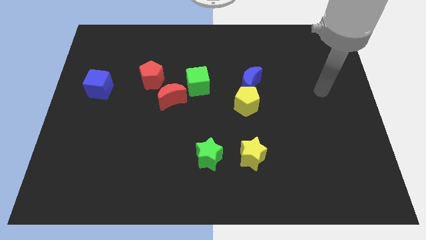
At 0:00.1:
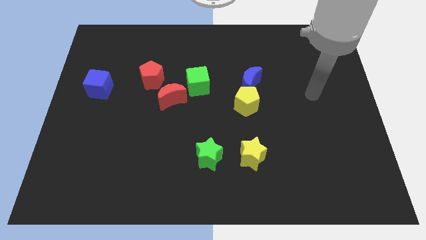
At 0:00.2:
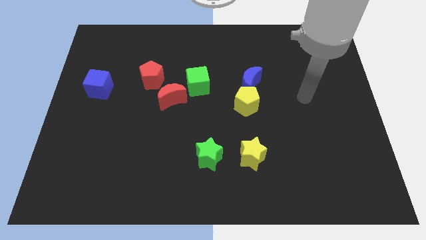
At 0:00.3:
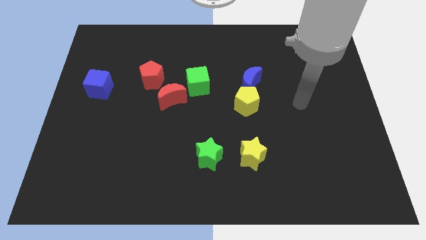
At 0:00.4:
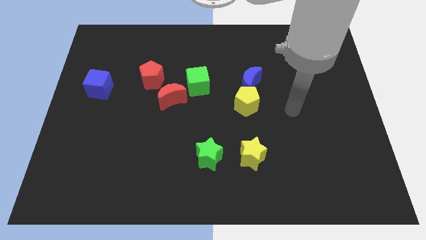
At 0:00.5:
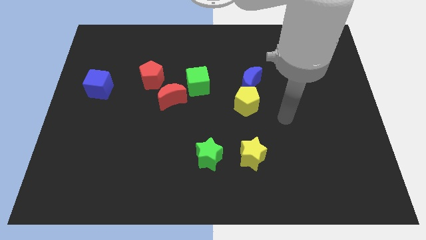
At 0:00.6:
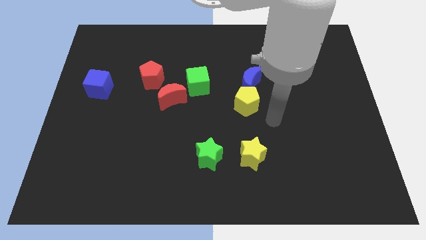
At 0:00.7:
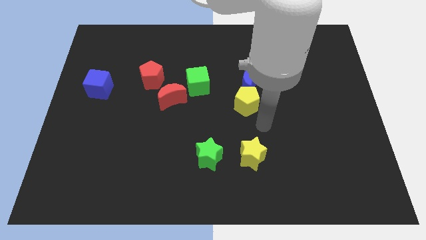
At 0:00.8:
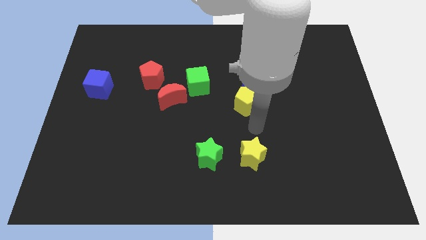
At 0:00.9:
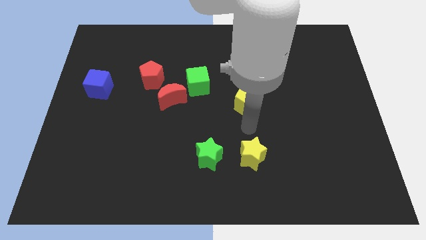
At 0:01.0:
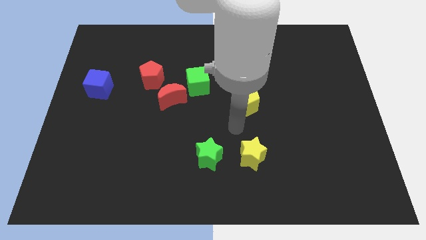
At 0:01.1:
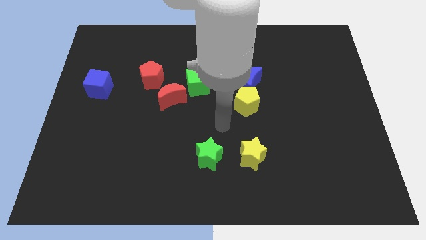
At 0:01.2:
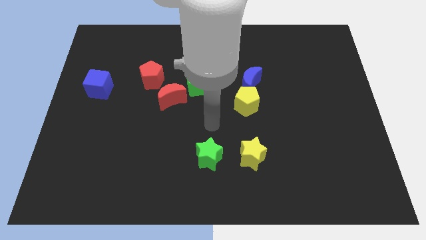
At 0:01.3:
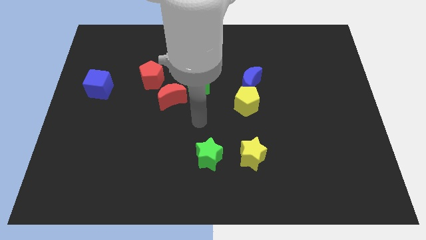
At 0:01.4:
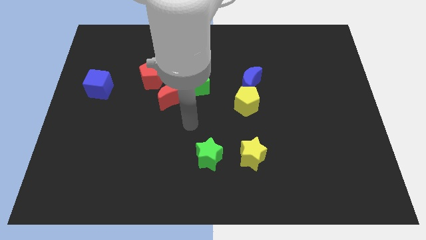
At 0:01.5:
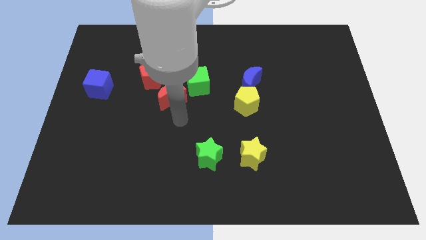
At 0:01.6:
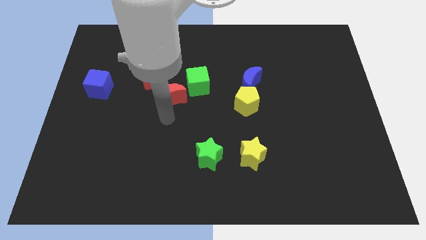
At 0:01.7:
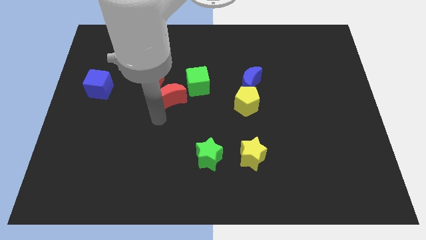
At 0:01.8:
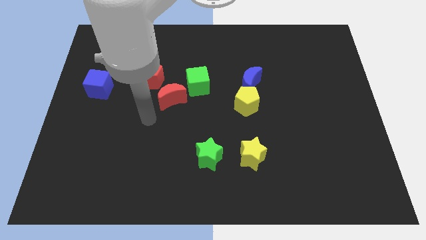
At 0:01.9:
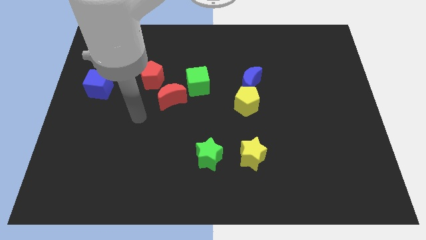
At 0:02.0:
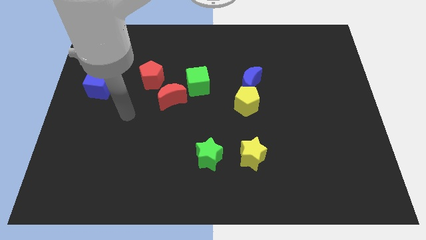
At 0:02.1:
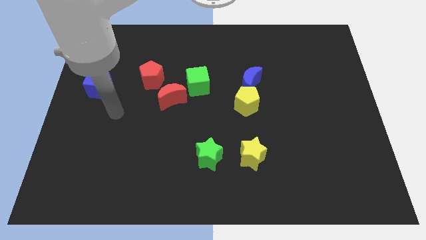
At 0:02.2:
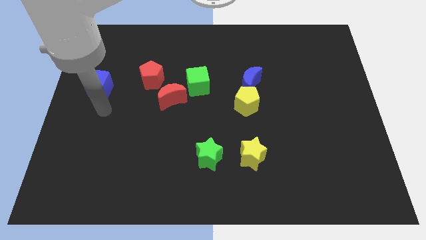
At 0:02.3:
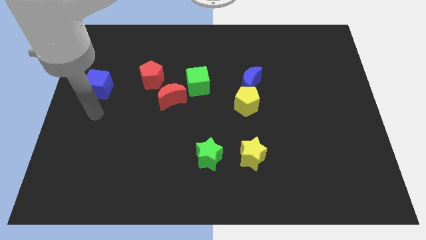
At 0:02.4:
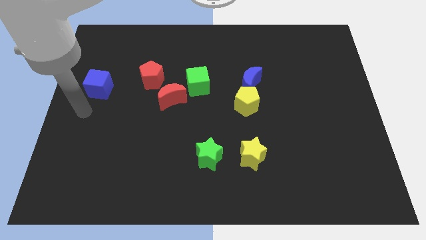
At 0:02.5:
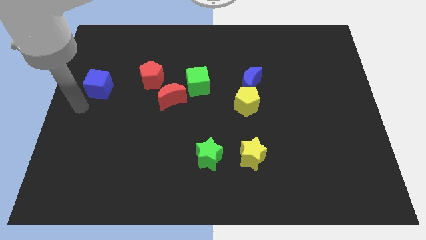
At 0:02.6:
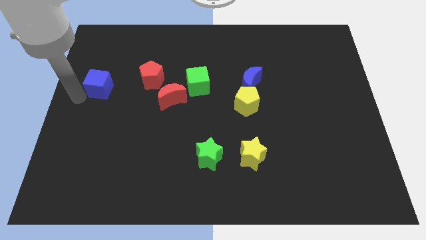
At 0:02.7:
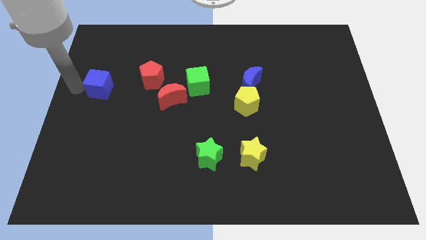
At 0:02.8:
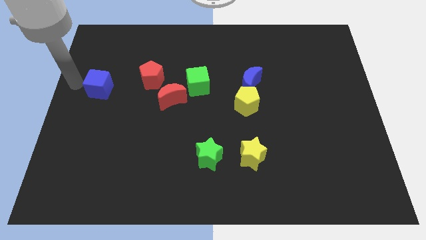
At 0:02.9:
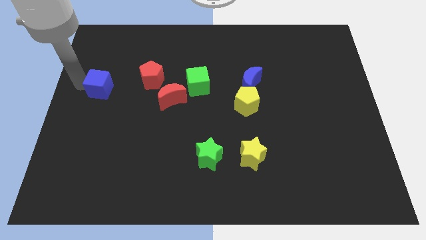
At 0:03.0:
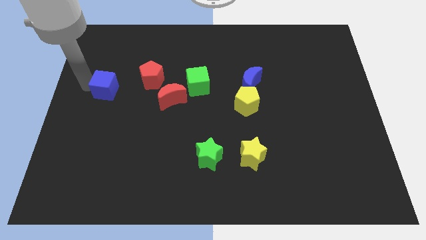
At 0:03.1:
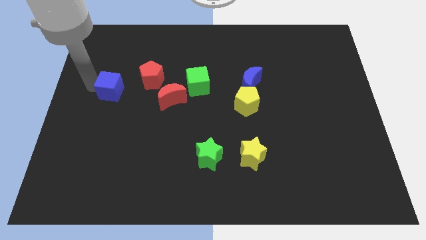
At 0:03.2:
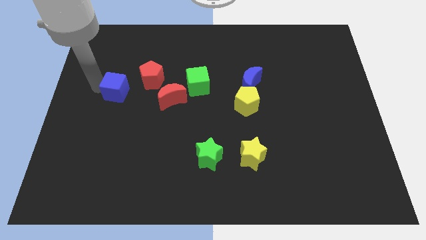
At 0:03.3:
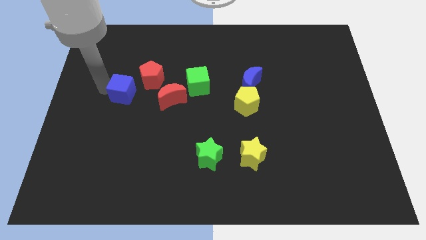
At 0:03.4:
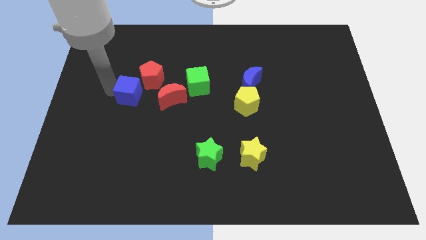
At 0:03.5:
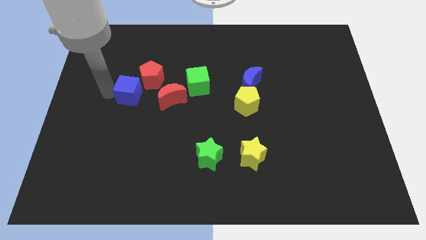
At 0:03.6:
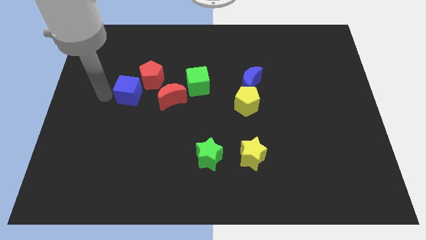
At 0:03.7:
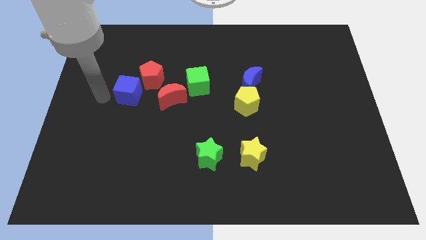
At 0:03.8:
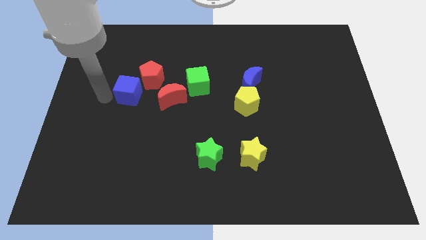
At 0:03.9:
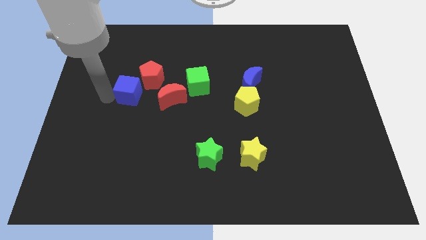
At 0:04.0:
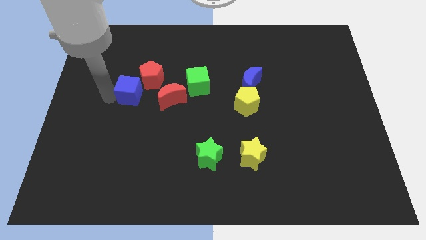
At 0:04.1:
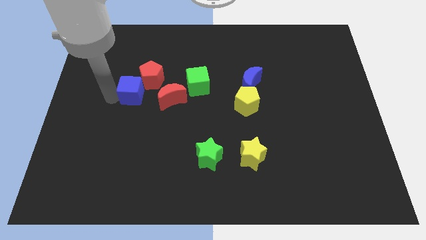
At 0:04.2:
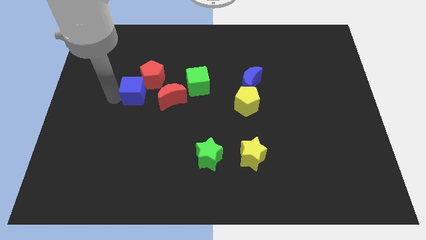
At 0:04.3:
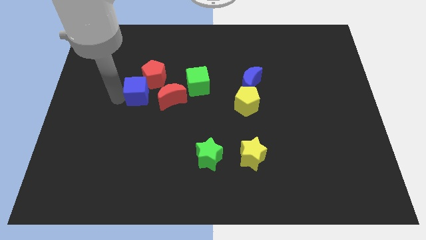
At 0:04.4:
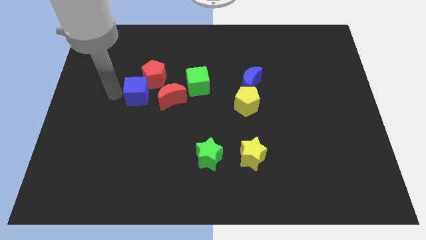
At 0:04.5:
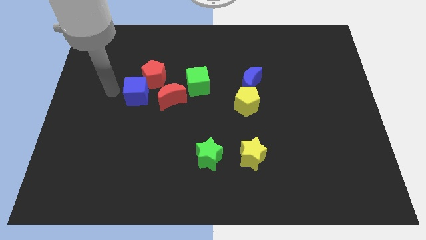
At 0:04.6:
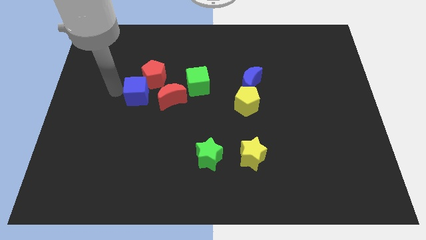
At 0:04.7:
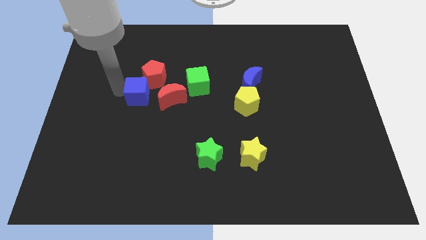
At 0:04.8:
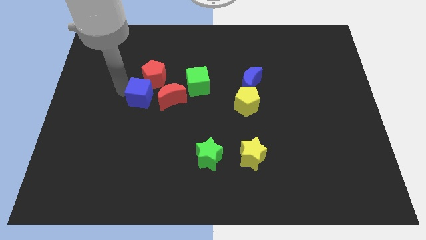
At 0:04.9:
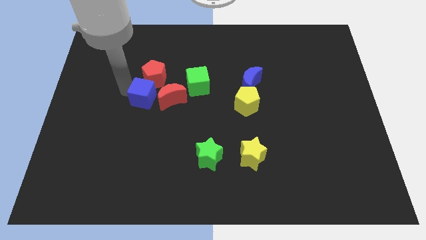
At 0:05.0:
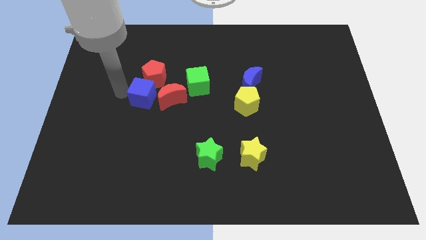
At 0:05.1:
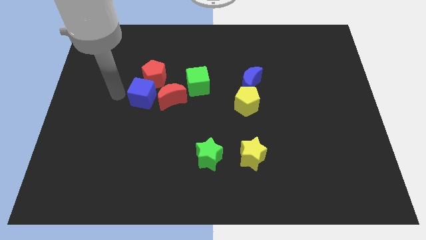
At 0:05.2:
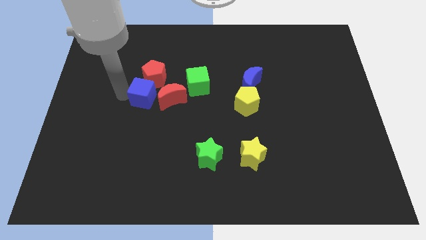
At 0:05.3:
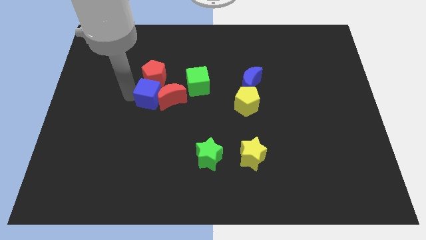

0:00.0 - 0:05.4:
put the blue cube to the red moon

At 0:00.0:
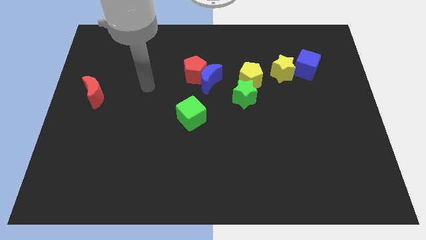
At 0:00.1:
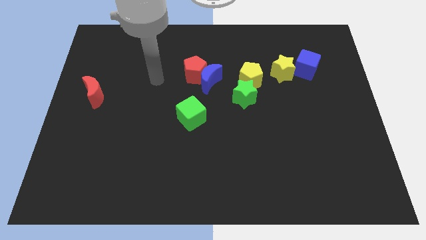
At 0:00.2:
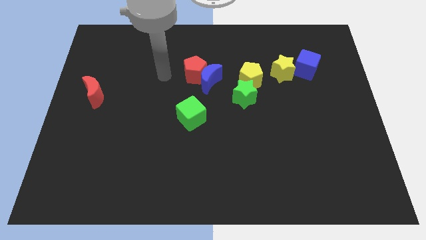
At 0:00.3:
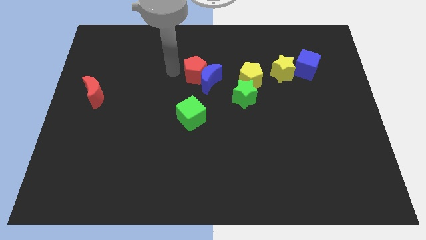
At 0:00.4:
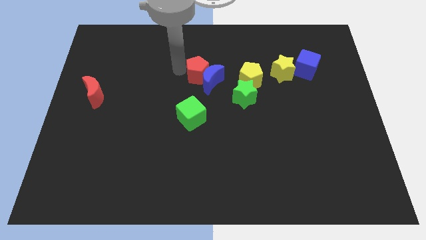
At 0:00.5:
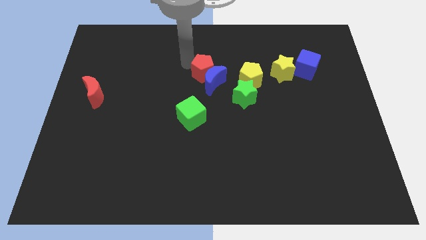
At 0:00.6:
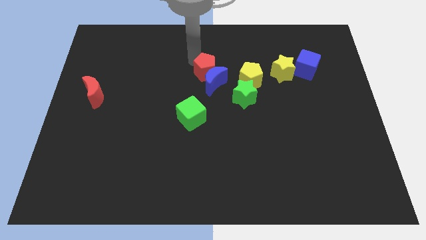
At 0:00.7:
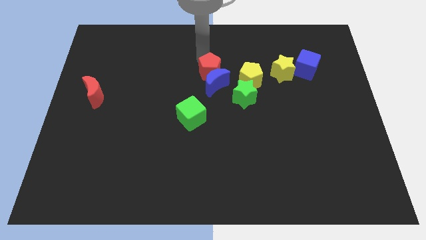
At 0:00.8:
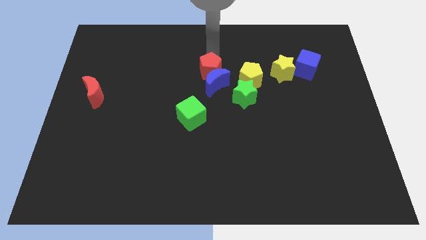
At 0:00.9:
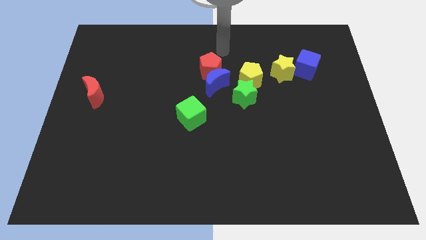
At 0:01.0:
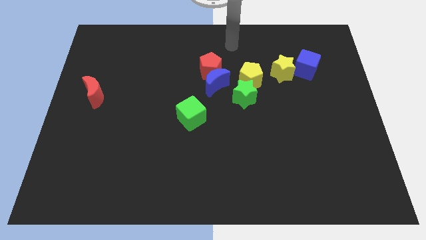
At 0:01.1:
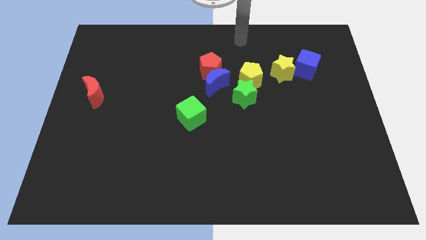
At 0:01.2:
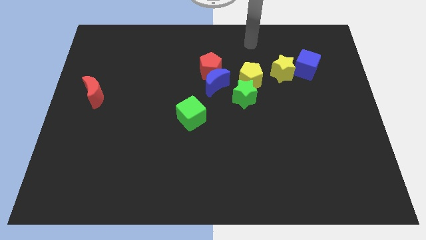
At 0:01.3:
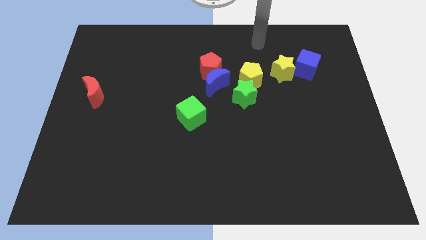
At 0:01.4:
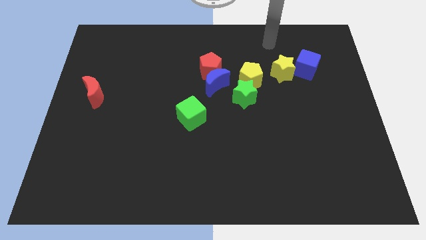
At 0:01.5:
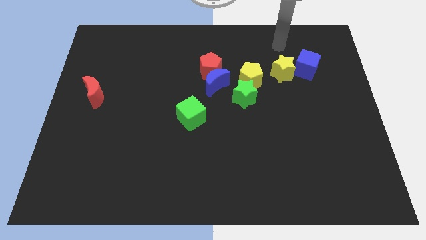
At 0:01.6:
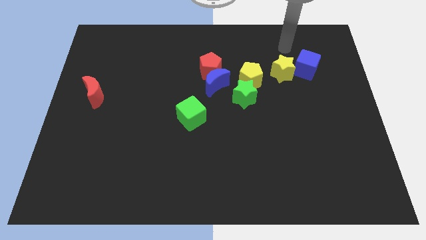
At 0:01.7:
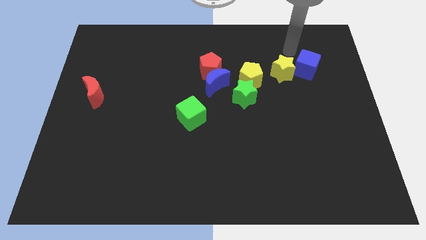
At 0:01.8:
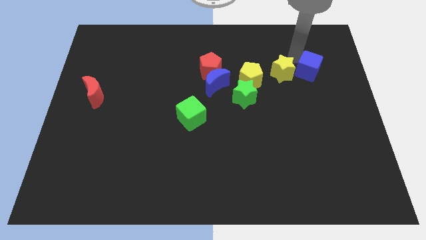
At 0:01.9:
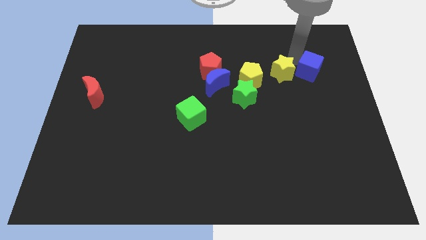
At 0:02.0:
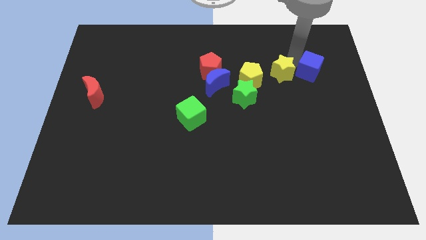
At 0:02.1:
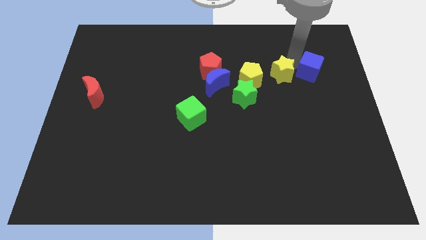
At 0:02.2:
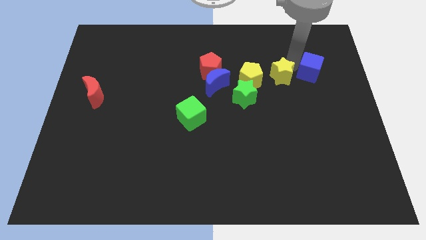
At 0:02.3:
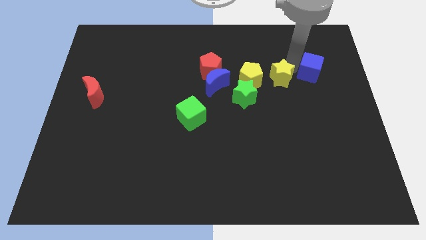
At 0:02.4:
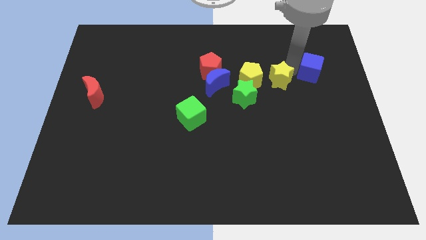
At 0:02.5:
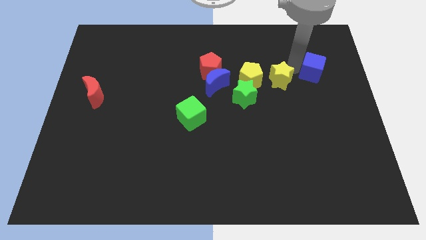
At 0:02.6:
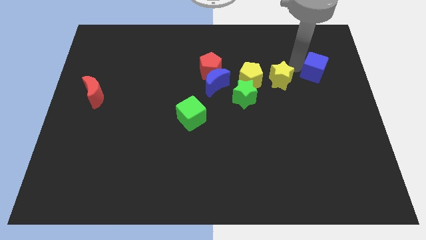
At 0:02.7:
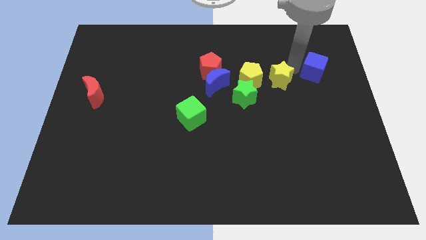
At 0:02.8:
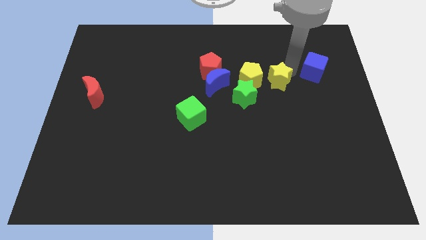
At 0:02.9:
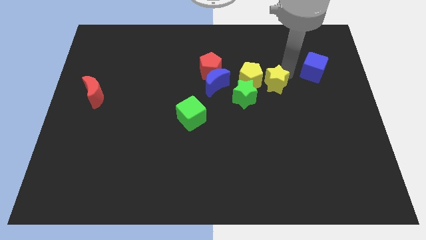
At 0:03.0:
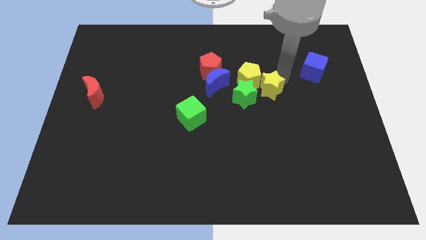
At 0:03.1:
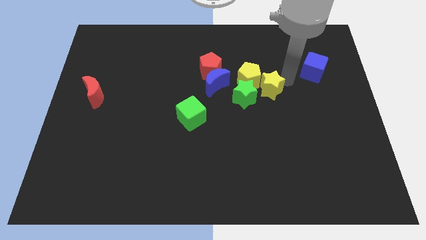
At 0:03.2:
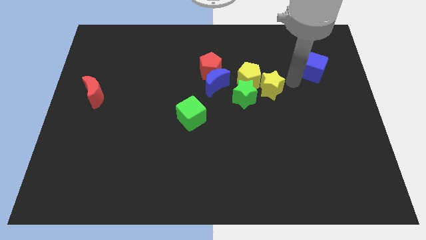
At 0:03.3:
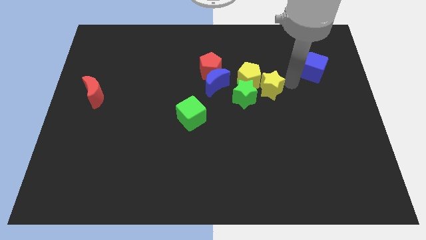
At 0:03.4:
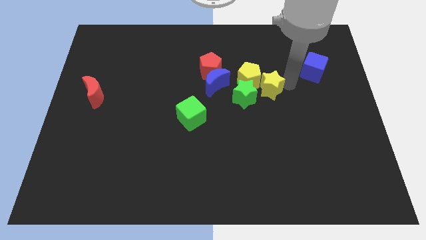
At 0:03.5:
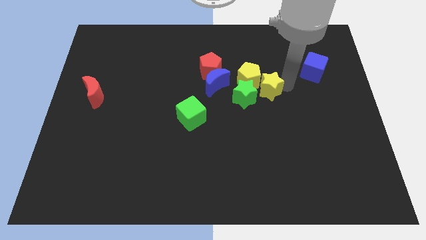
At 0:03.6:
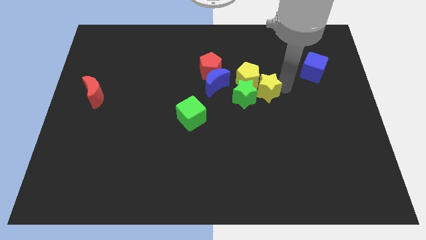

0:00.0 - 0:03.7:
move the yellow star close to the green star
